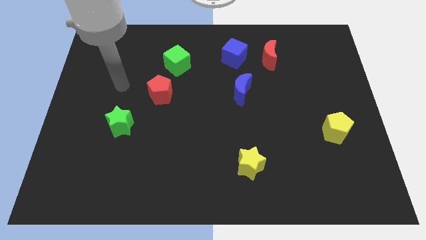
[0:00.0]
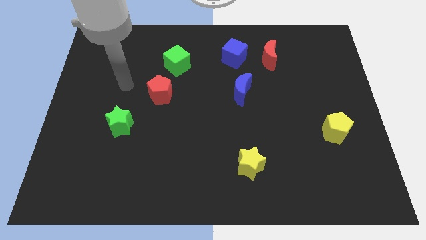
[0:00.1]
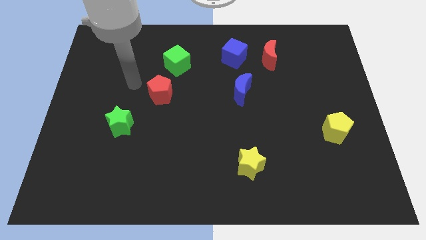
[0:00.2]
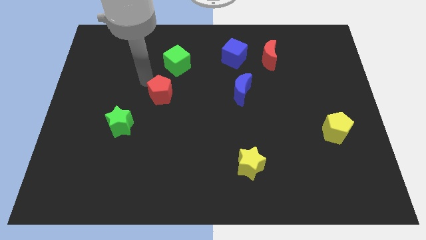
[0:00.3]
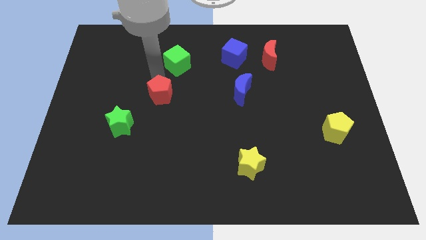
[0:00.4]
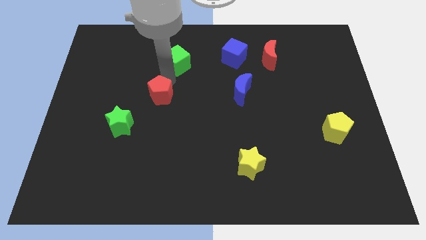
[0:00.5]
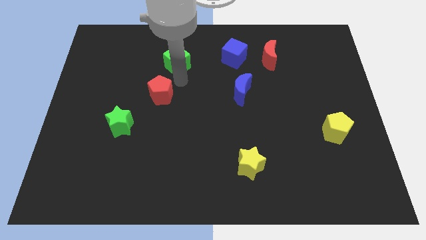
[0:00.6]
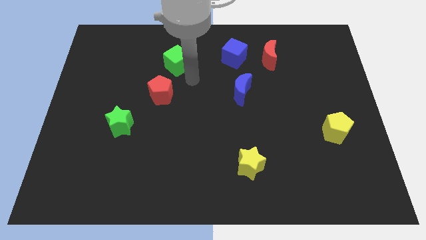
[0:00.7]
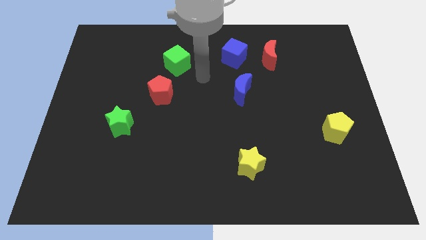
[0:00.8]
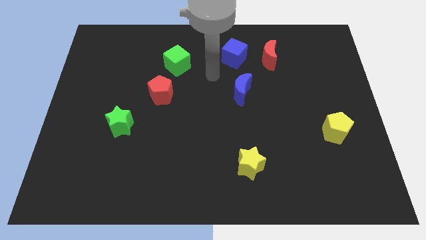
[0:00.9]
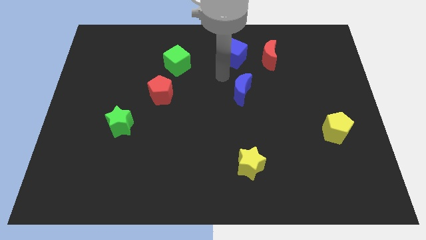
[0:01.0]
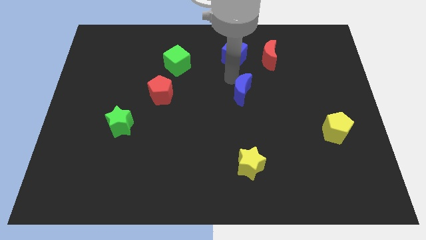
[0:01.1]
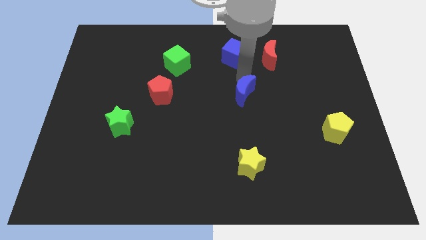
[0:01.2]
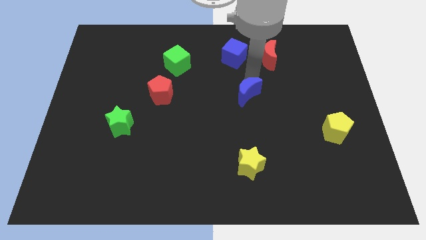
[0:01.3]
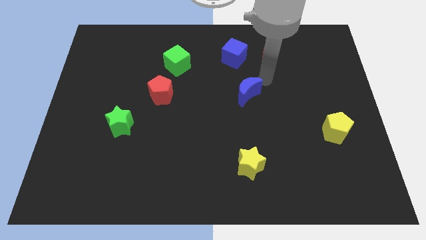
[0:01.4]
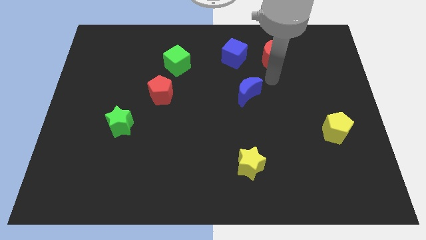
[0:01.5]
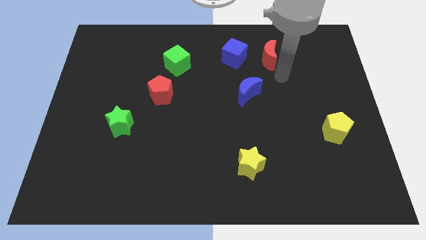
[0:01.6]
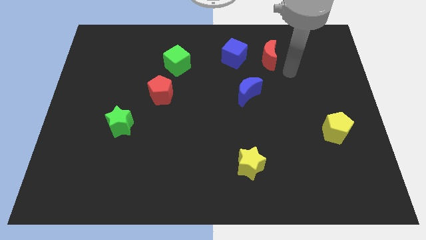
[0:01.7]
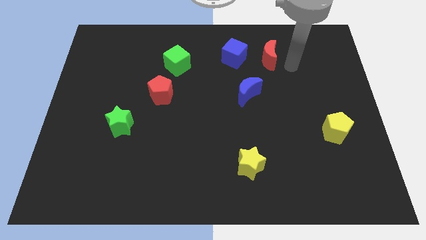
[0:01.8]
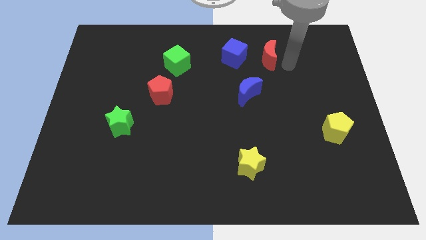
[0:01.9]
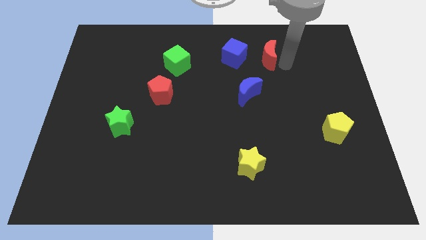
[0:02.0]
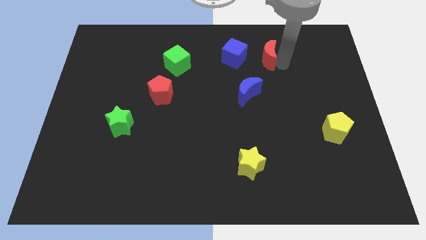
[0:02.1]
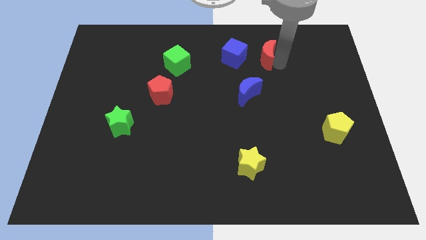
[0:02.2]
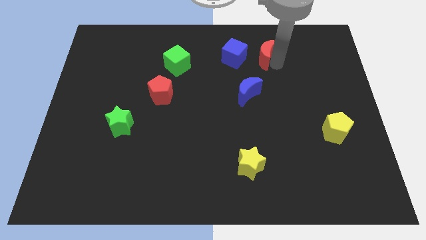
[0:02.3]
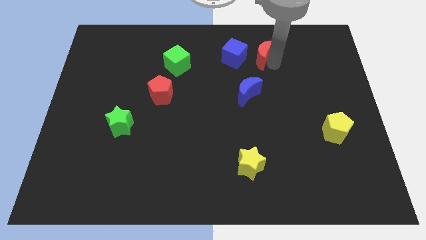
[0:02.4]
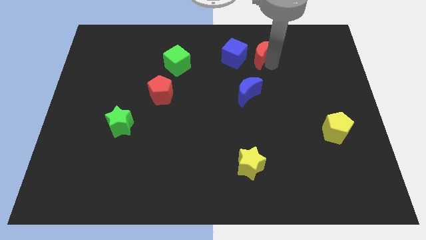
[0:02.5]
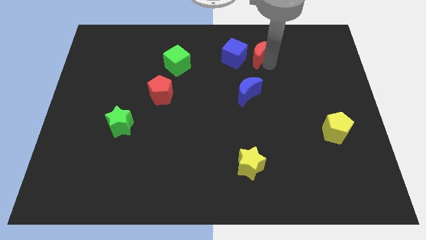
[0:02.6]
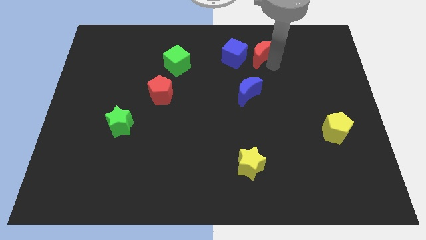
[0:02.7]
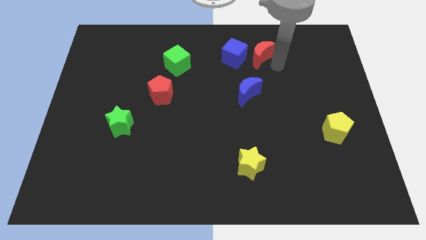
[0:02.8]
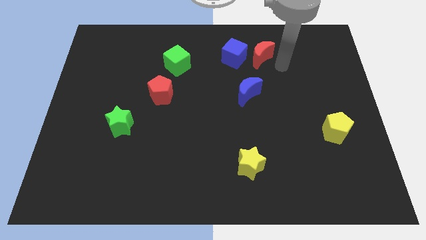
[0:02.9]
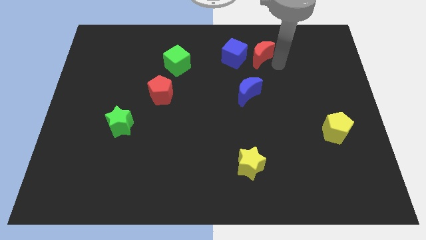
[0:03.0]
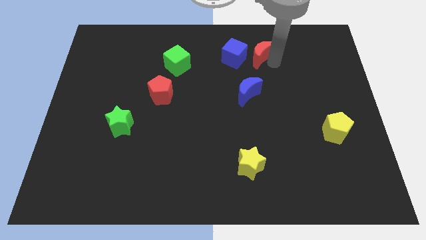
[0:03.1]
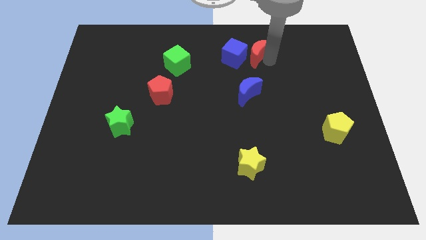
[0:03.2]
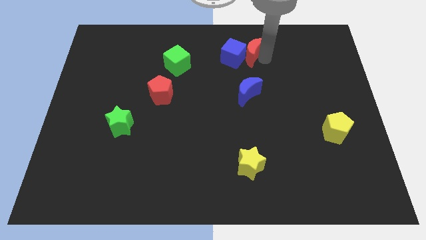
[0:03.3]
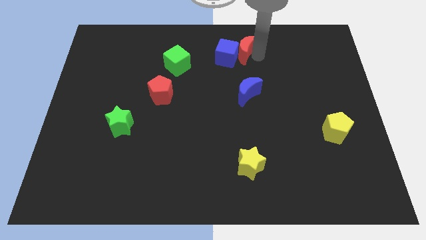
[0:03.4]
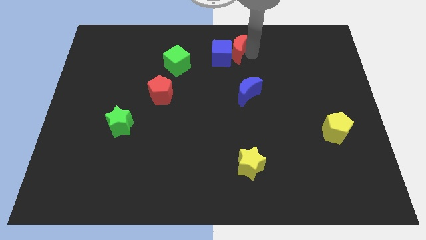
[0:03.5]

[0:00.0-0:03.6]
move the red moon to the left slightly

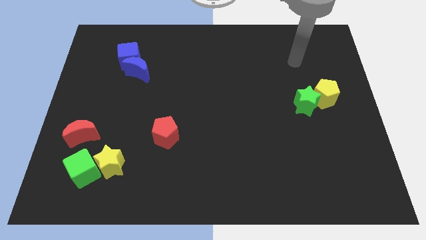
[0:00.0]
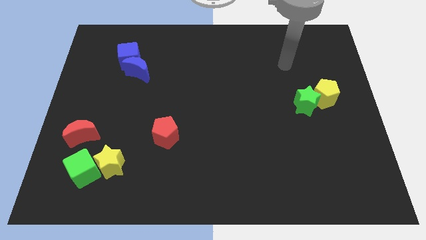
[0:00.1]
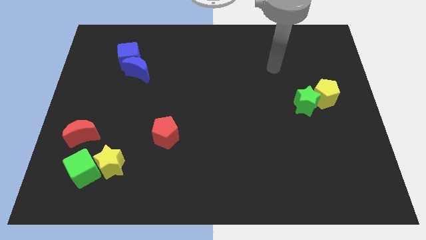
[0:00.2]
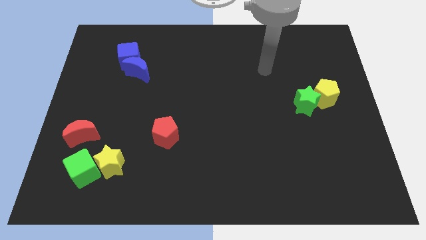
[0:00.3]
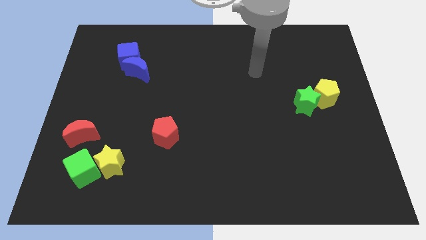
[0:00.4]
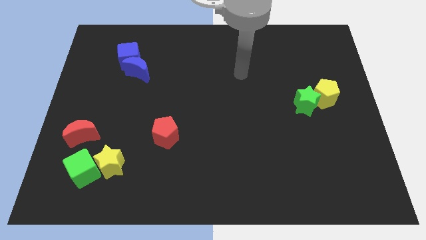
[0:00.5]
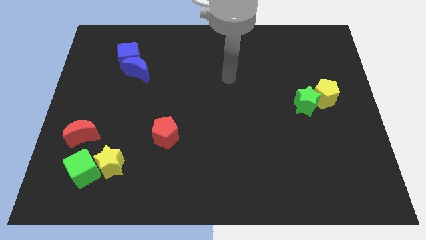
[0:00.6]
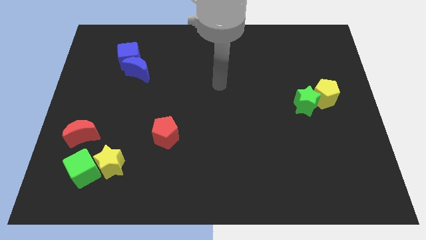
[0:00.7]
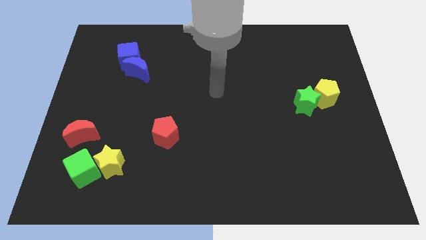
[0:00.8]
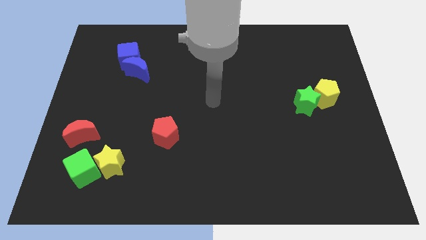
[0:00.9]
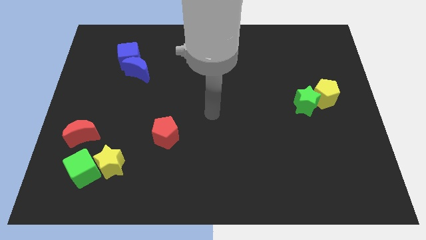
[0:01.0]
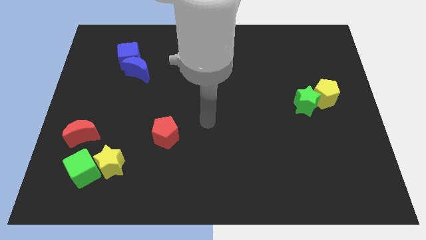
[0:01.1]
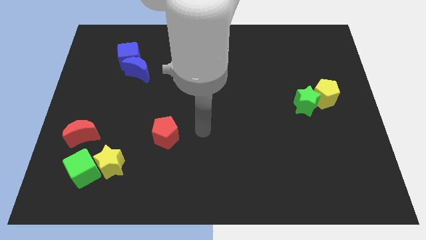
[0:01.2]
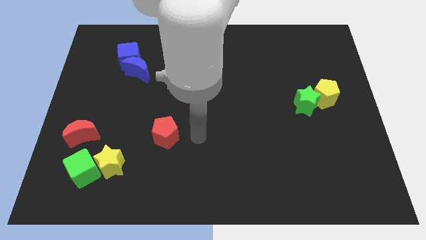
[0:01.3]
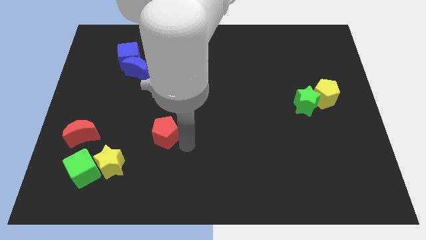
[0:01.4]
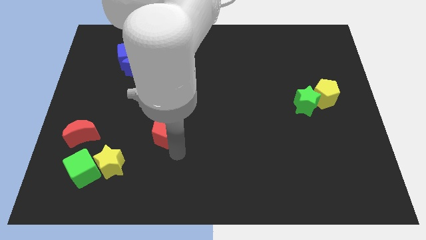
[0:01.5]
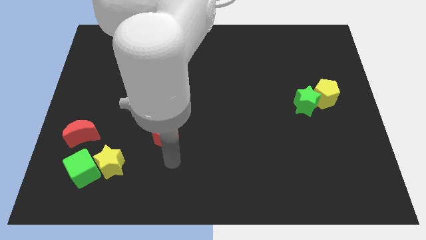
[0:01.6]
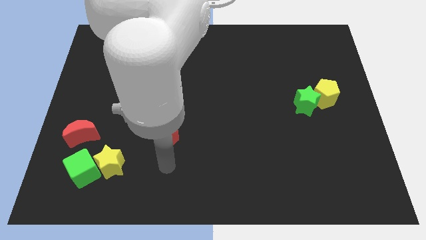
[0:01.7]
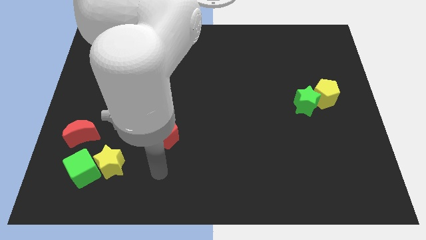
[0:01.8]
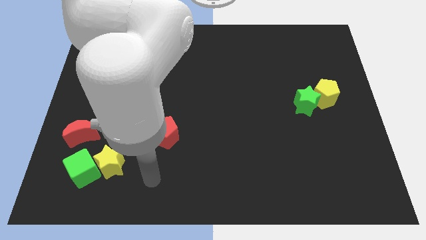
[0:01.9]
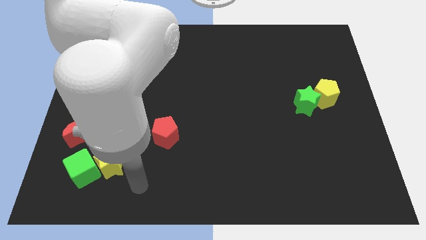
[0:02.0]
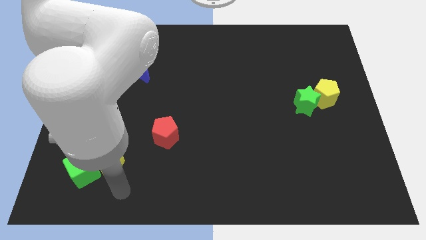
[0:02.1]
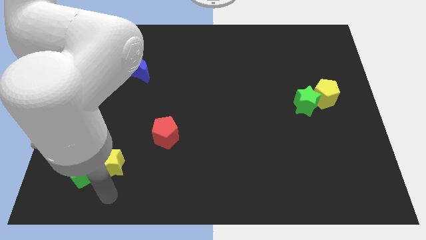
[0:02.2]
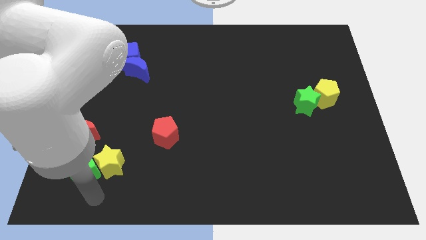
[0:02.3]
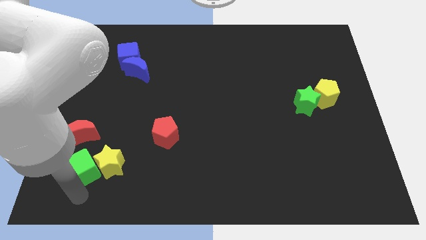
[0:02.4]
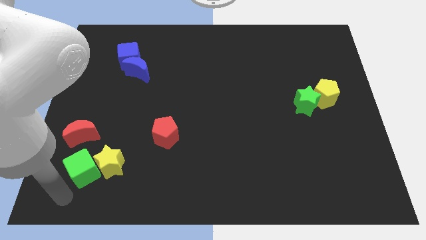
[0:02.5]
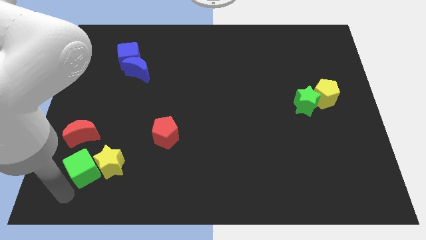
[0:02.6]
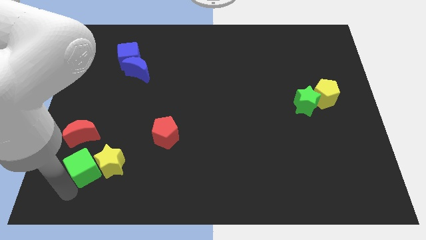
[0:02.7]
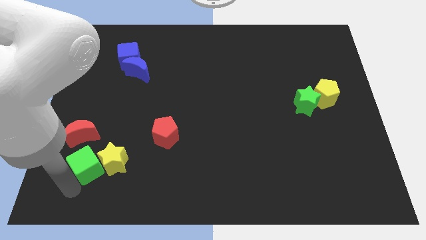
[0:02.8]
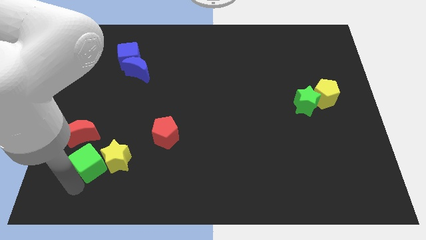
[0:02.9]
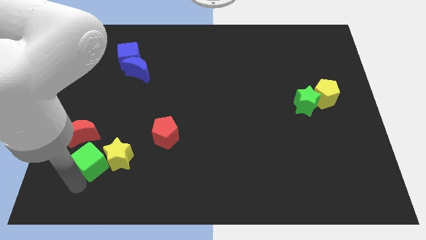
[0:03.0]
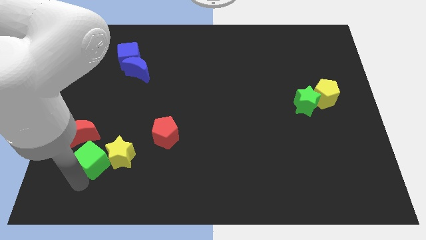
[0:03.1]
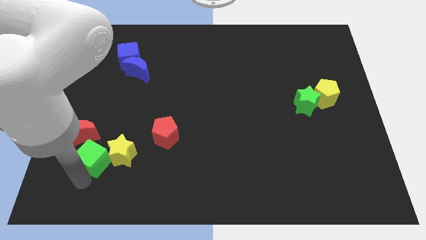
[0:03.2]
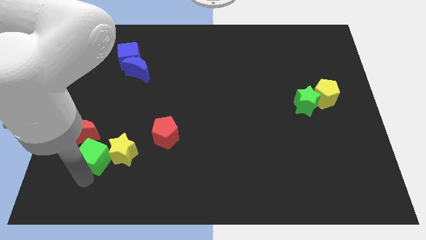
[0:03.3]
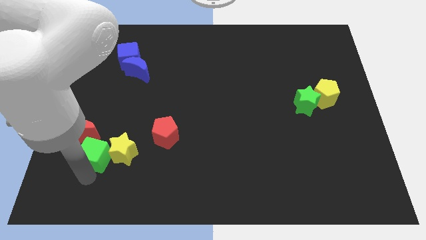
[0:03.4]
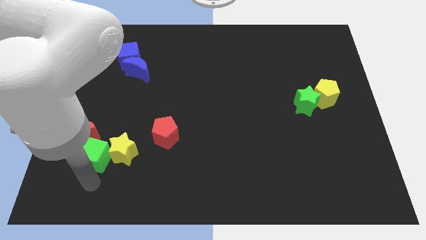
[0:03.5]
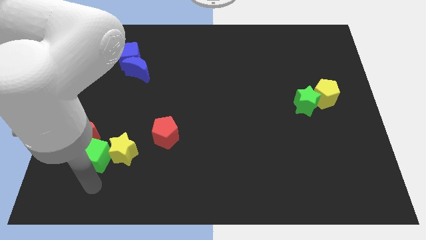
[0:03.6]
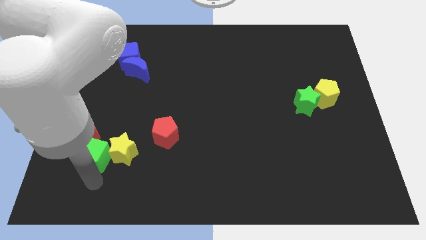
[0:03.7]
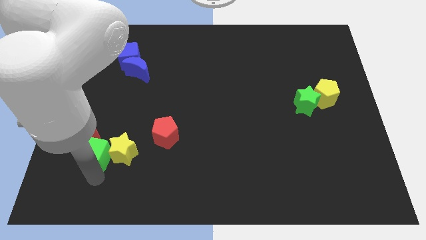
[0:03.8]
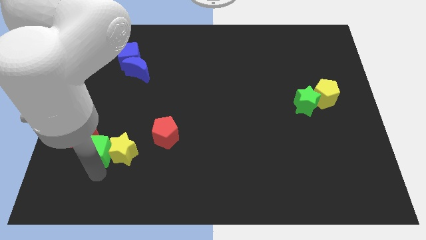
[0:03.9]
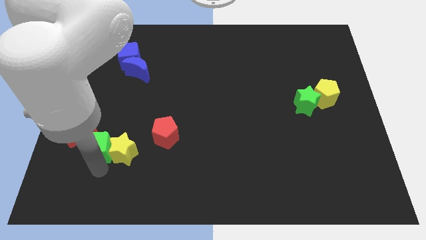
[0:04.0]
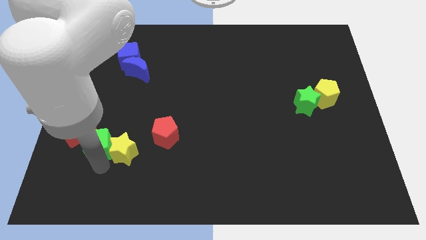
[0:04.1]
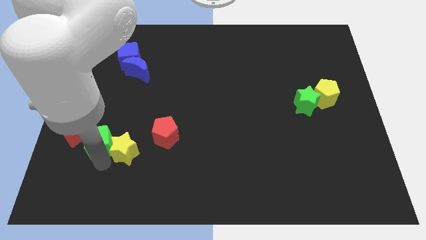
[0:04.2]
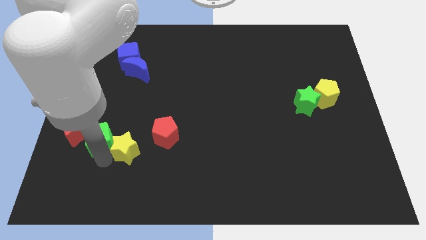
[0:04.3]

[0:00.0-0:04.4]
push the green cube upwards a bit
